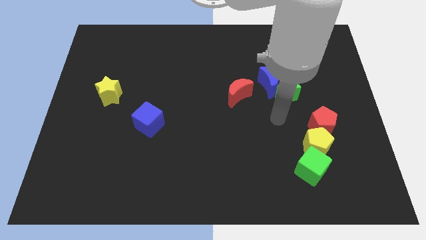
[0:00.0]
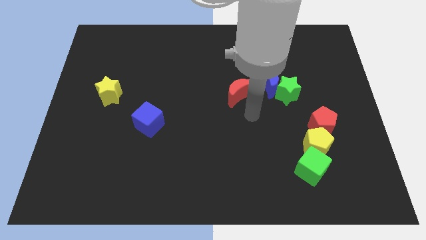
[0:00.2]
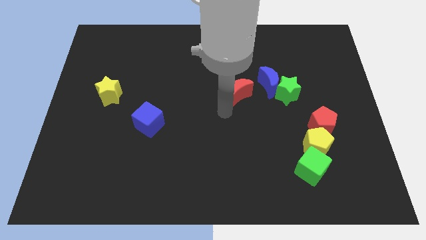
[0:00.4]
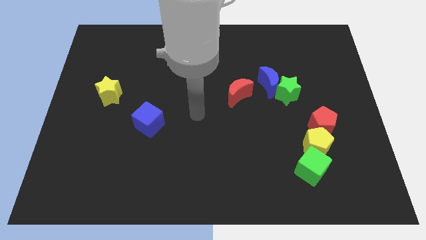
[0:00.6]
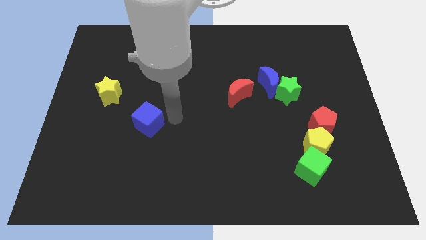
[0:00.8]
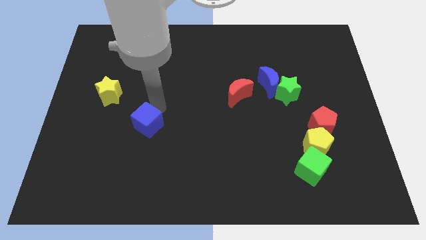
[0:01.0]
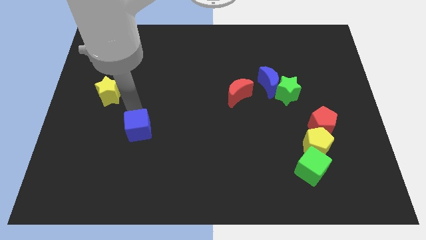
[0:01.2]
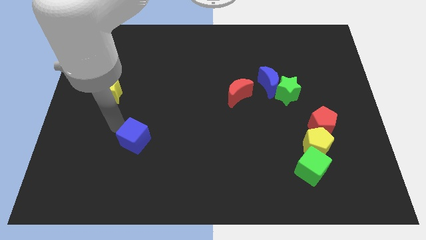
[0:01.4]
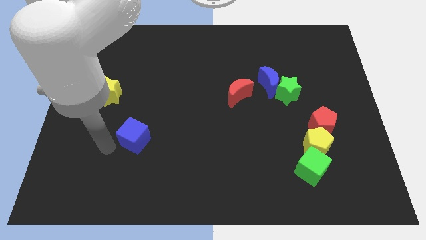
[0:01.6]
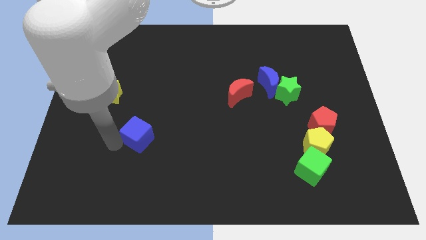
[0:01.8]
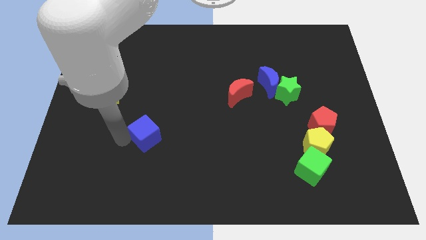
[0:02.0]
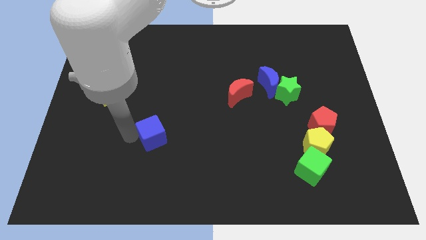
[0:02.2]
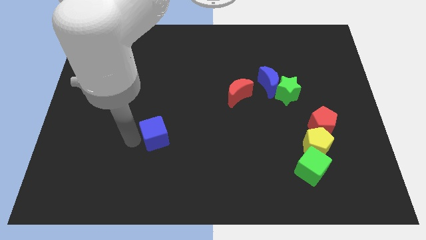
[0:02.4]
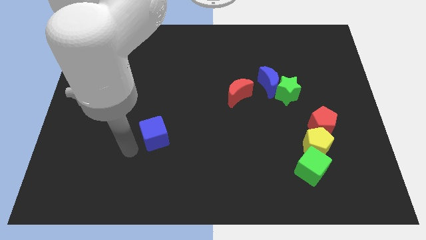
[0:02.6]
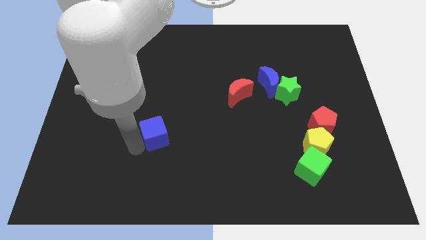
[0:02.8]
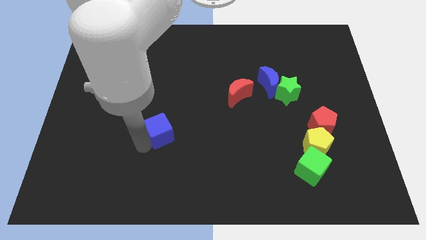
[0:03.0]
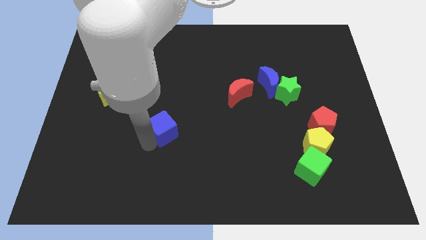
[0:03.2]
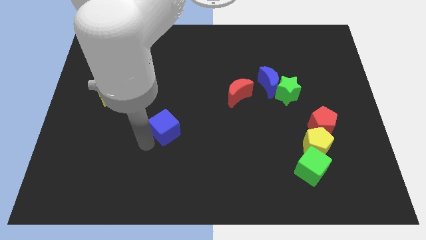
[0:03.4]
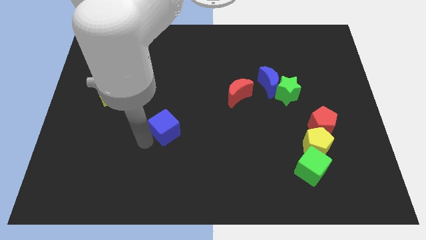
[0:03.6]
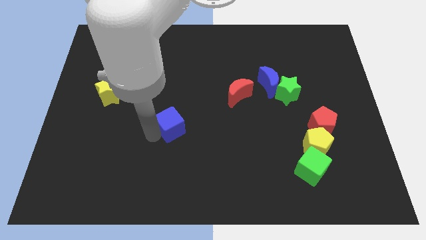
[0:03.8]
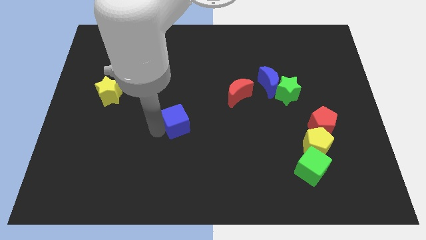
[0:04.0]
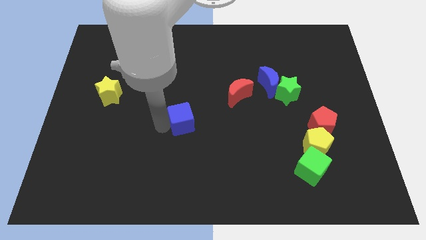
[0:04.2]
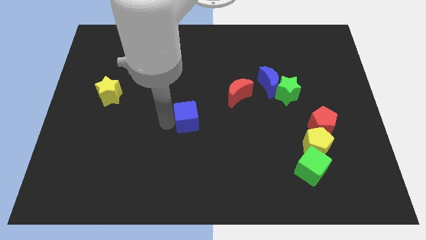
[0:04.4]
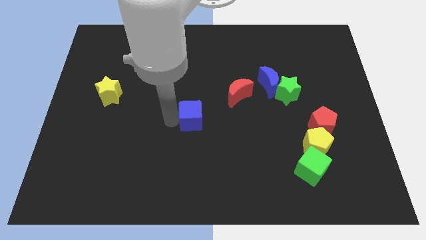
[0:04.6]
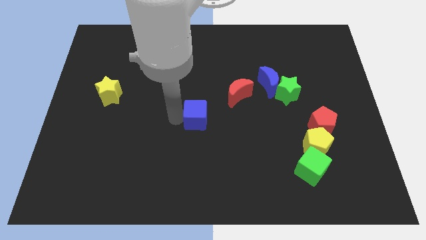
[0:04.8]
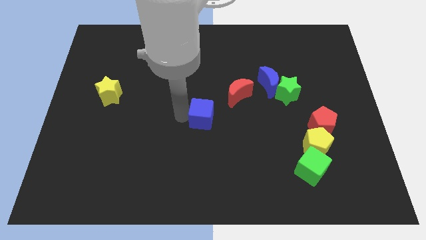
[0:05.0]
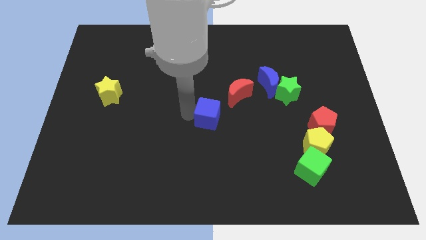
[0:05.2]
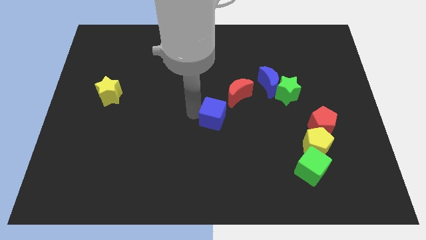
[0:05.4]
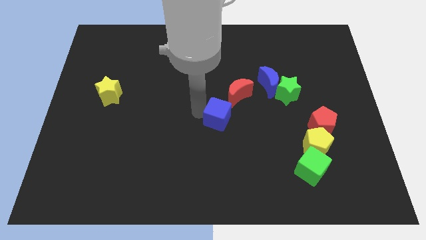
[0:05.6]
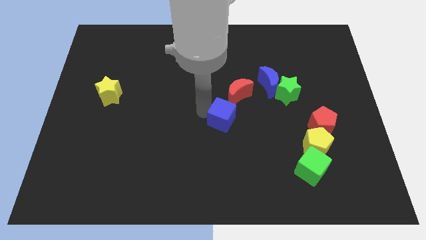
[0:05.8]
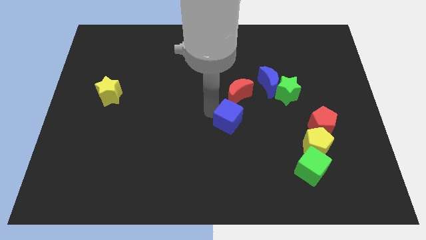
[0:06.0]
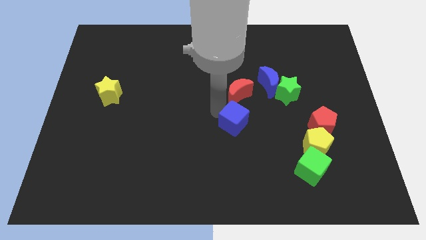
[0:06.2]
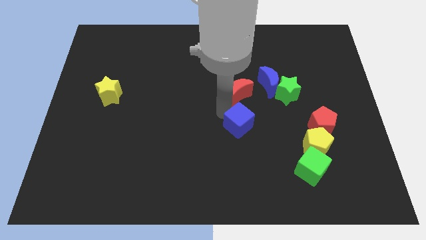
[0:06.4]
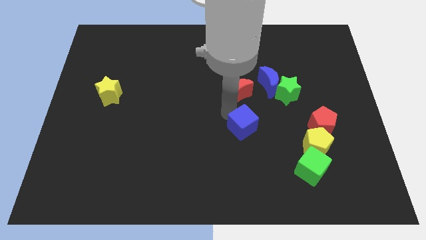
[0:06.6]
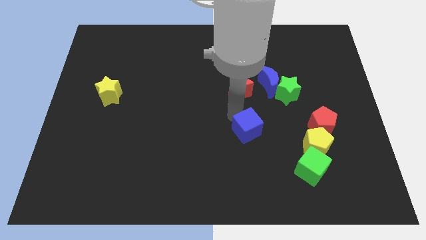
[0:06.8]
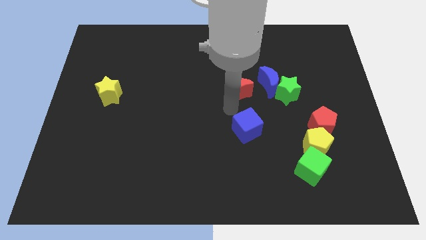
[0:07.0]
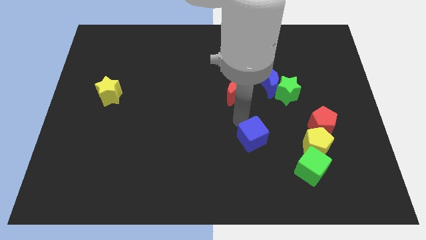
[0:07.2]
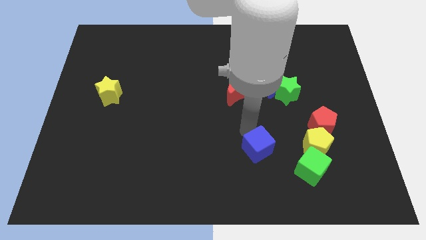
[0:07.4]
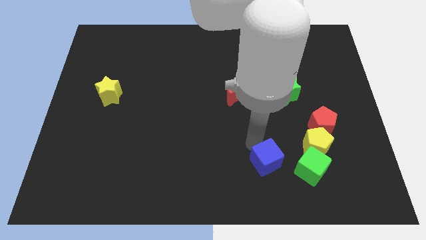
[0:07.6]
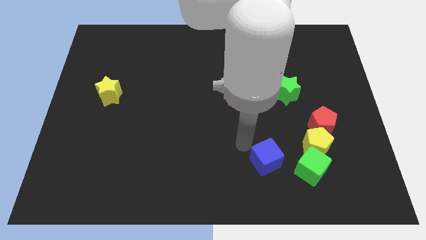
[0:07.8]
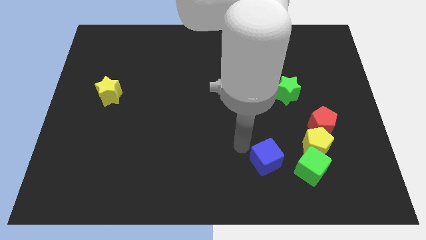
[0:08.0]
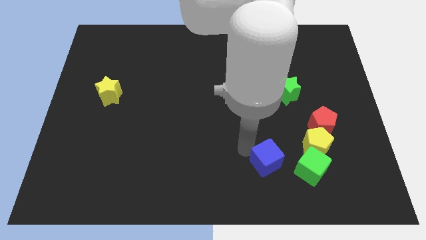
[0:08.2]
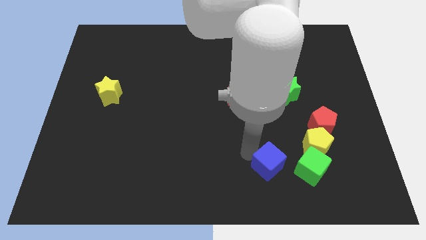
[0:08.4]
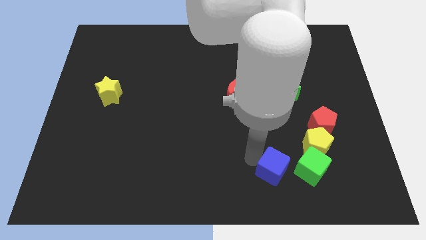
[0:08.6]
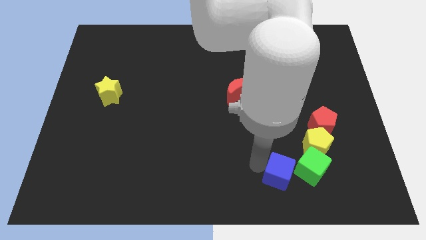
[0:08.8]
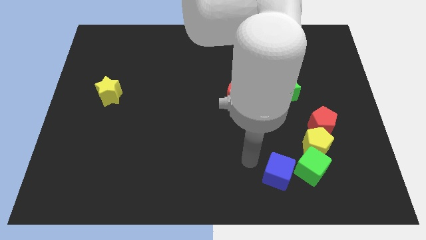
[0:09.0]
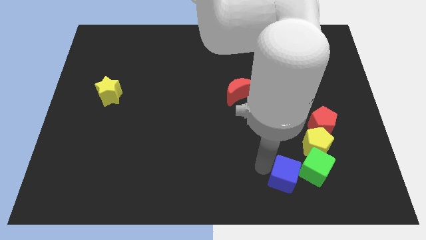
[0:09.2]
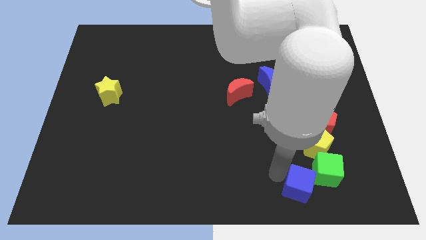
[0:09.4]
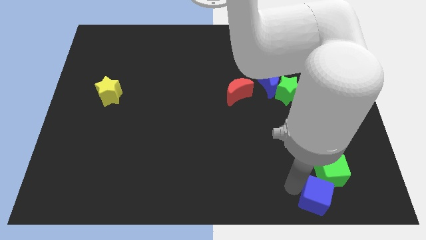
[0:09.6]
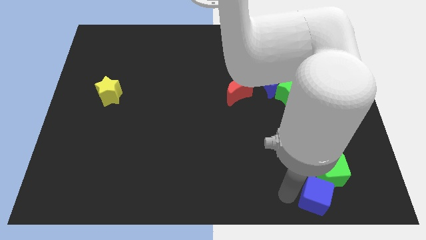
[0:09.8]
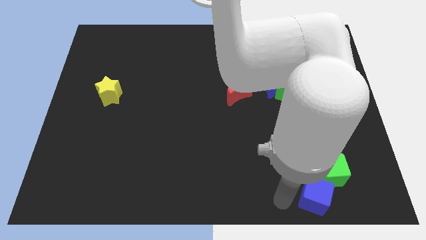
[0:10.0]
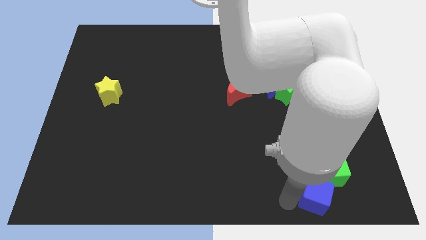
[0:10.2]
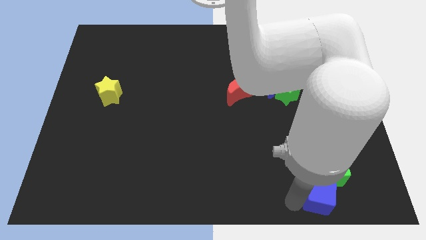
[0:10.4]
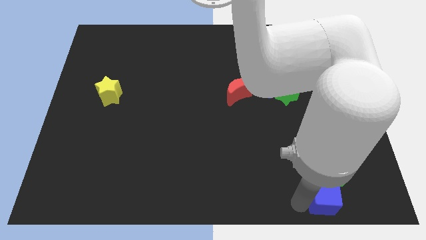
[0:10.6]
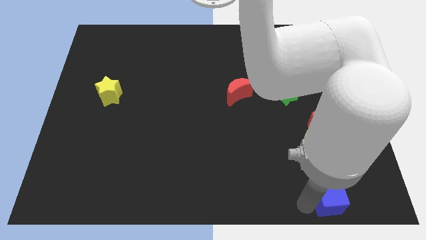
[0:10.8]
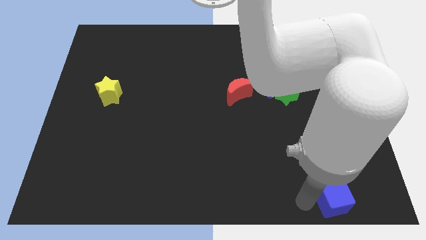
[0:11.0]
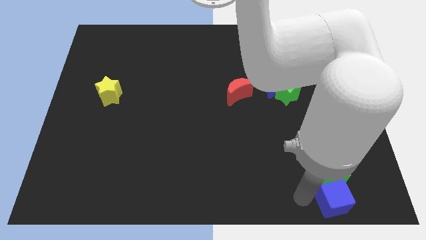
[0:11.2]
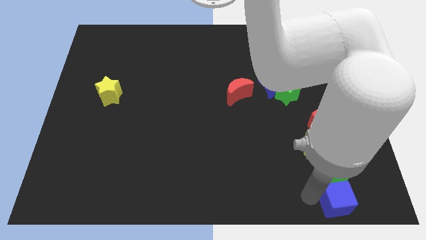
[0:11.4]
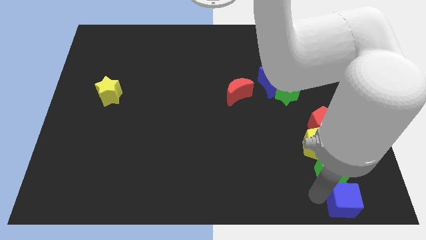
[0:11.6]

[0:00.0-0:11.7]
slide the blue cube to the bottom right of the board

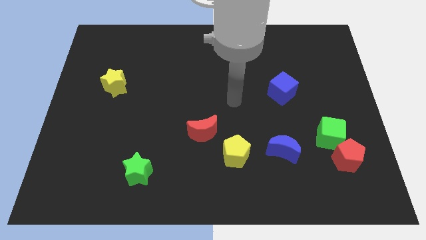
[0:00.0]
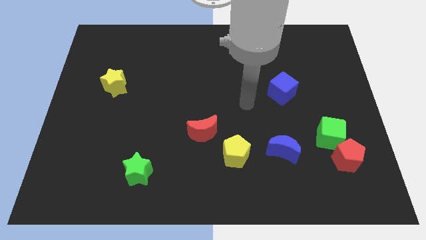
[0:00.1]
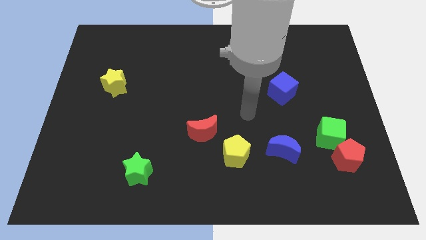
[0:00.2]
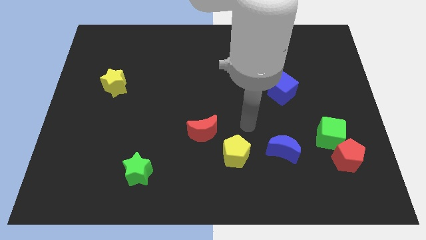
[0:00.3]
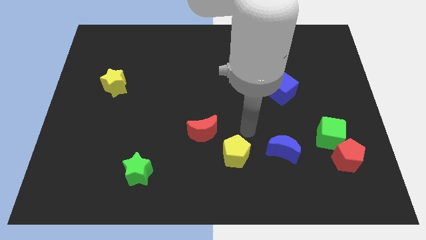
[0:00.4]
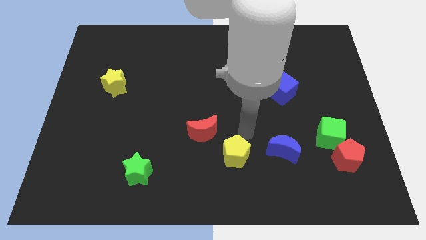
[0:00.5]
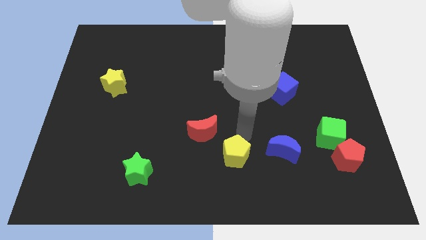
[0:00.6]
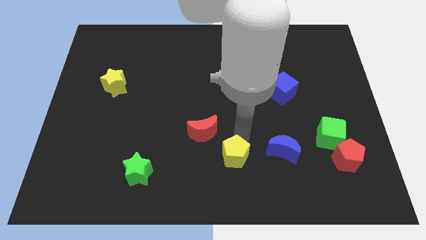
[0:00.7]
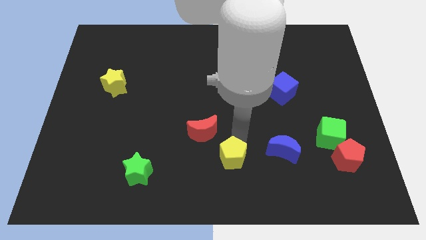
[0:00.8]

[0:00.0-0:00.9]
move the yellow pentagon to the bottom
